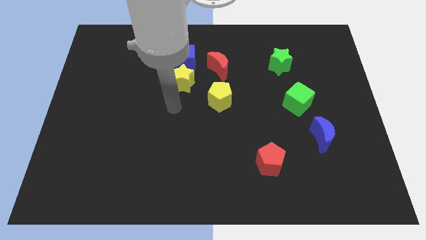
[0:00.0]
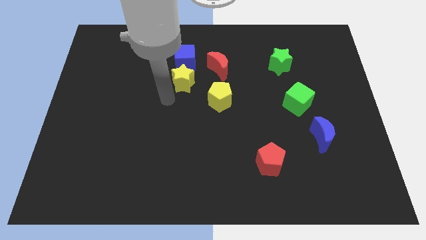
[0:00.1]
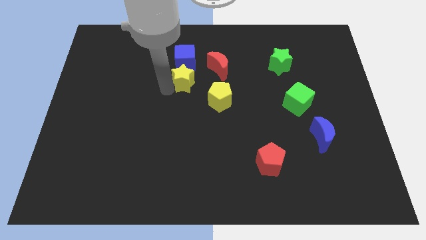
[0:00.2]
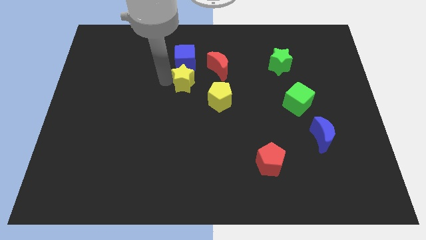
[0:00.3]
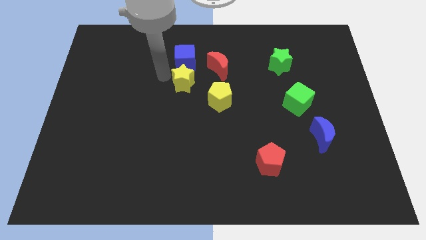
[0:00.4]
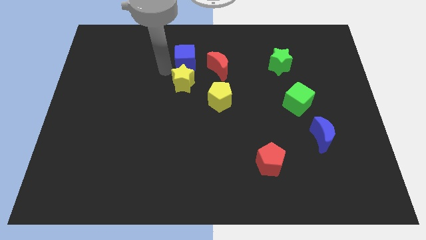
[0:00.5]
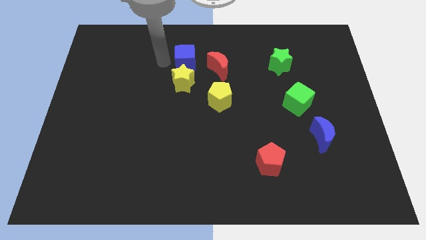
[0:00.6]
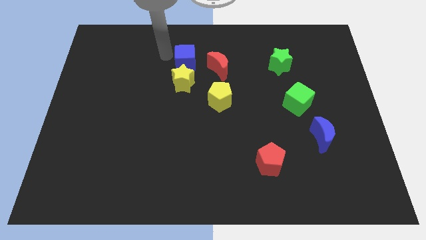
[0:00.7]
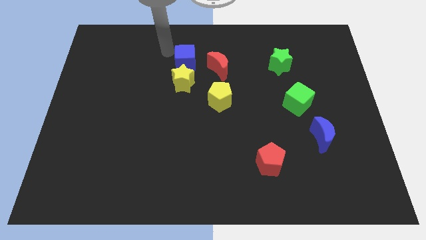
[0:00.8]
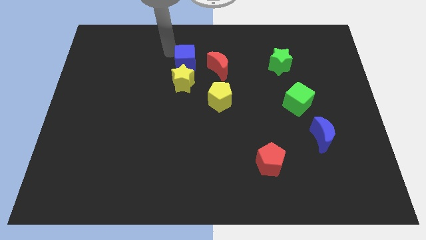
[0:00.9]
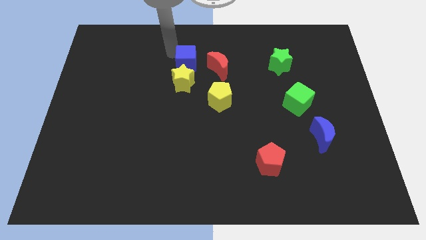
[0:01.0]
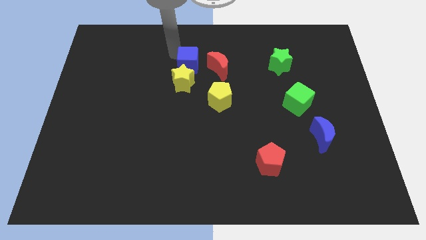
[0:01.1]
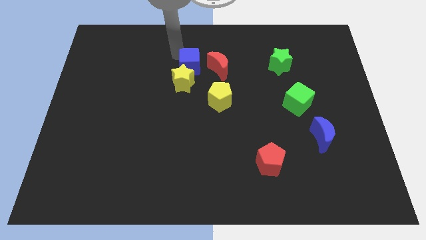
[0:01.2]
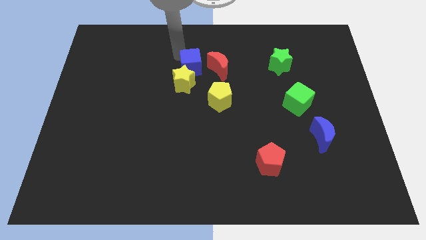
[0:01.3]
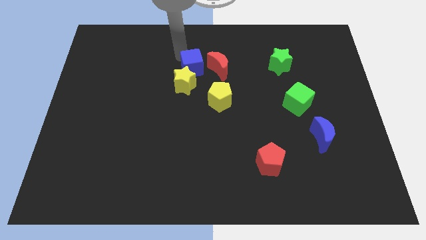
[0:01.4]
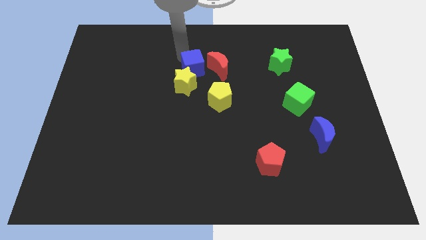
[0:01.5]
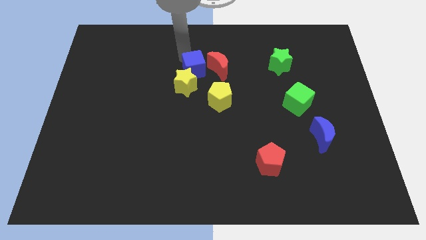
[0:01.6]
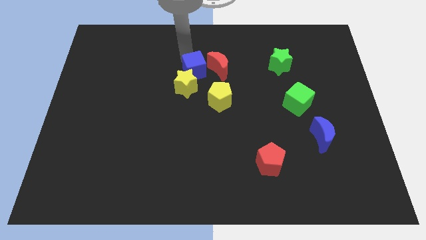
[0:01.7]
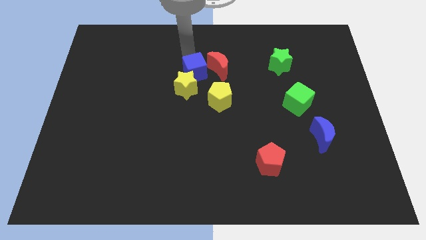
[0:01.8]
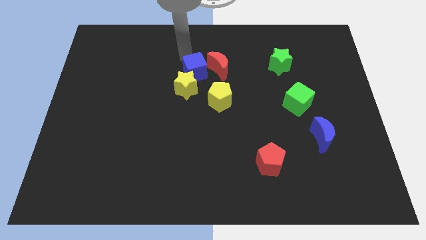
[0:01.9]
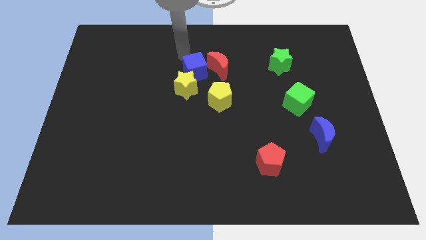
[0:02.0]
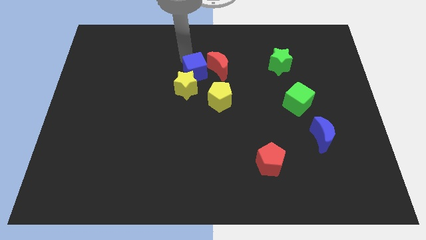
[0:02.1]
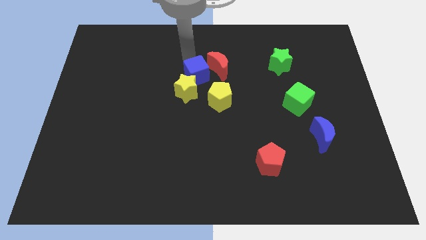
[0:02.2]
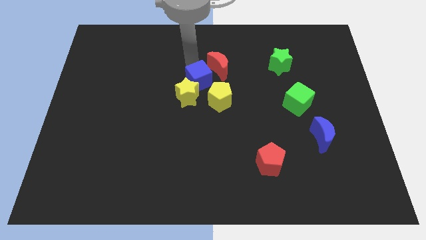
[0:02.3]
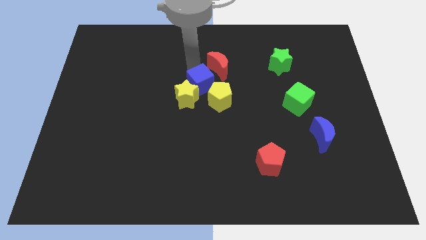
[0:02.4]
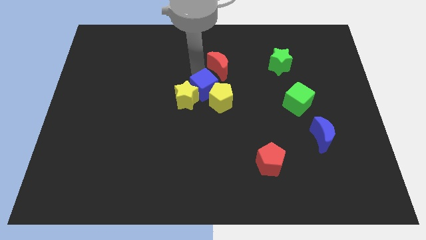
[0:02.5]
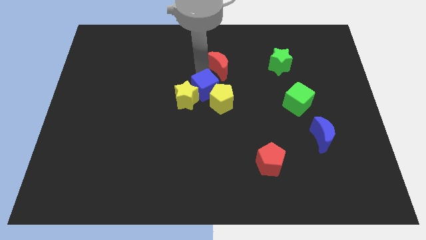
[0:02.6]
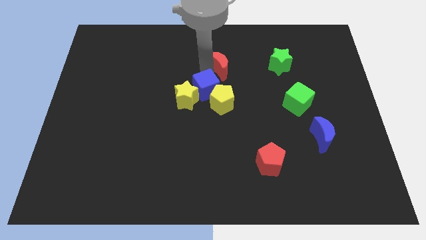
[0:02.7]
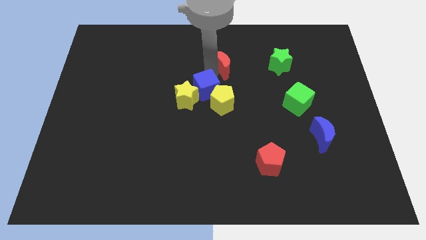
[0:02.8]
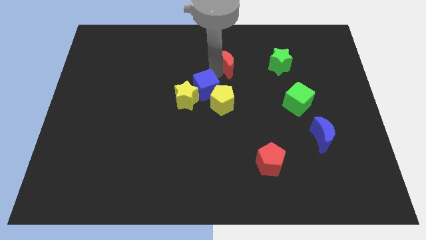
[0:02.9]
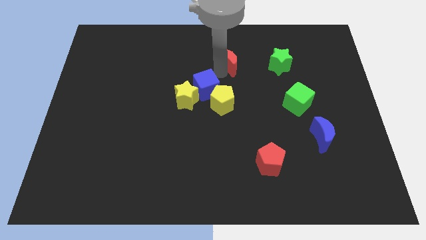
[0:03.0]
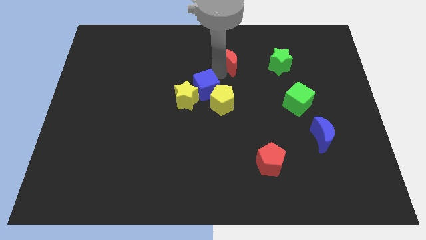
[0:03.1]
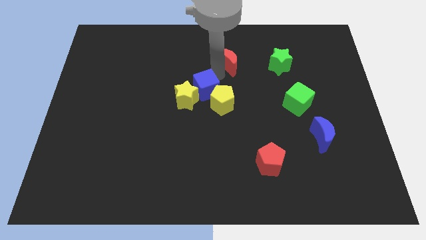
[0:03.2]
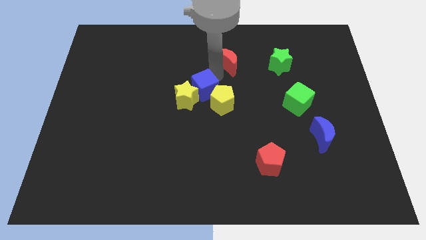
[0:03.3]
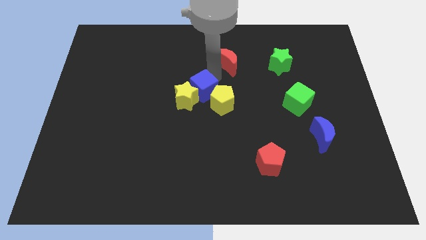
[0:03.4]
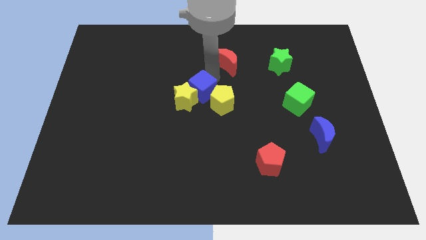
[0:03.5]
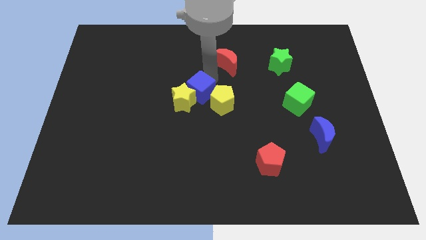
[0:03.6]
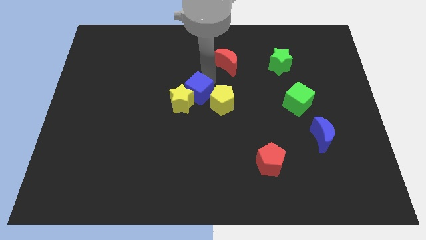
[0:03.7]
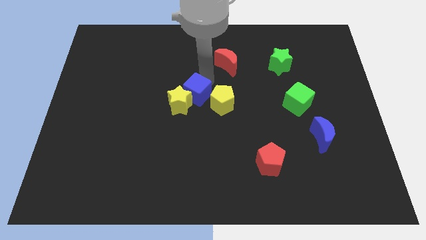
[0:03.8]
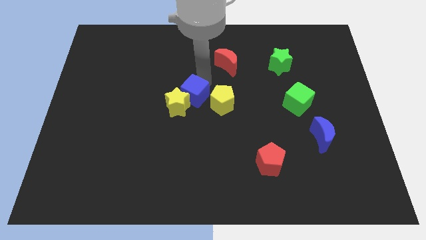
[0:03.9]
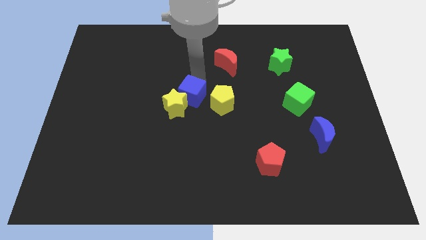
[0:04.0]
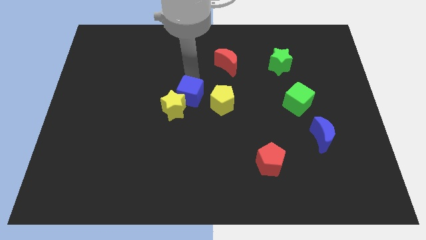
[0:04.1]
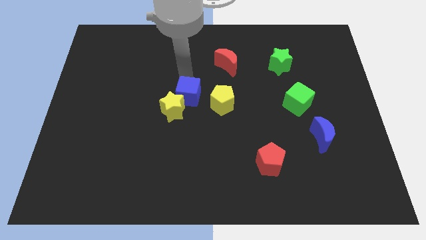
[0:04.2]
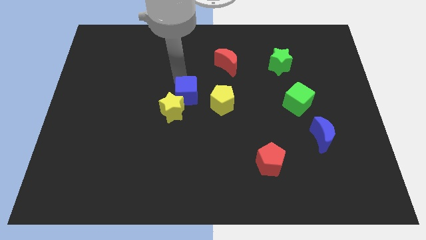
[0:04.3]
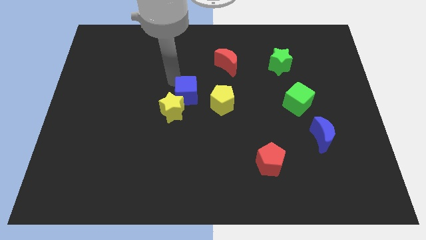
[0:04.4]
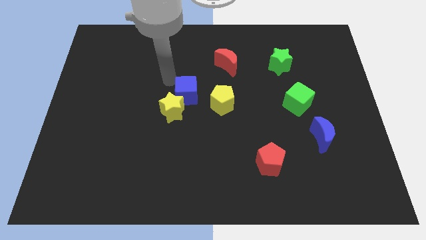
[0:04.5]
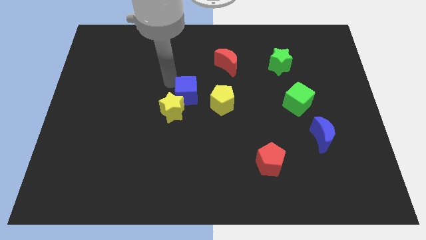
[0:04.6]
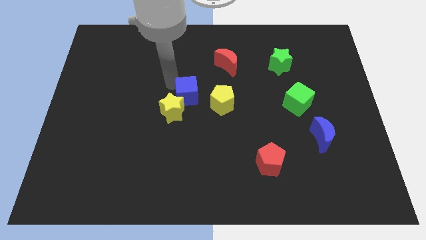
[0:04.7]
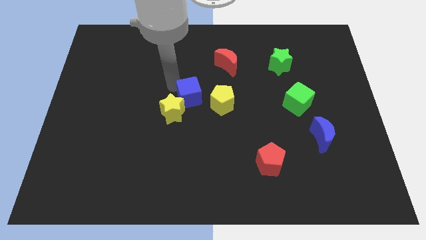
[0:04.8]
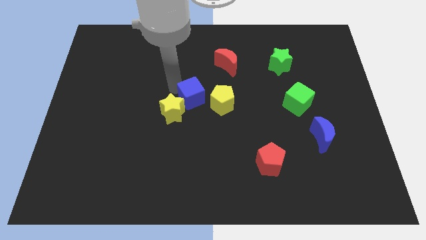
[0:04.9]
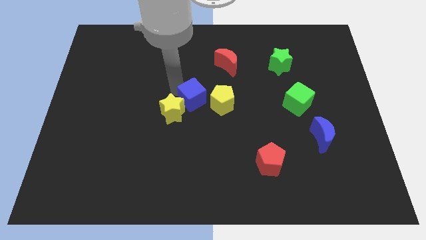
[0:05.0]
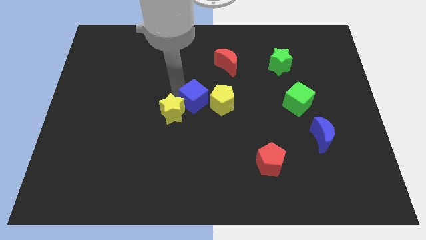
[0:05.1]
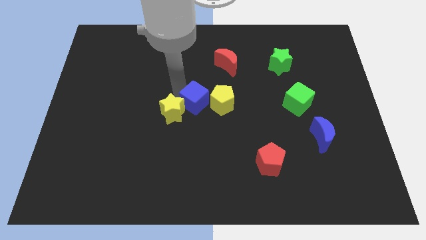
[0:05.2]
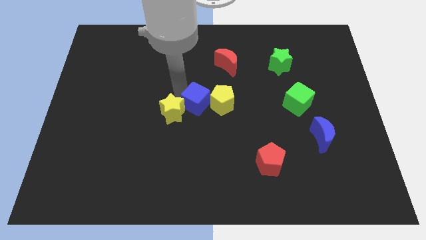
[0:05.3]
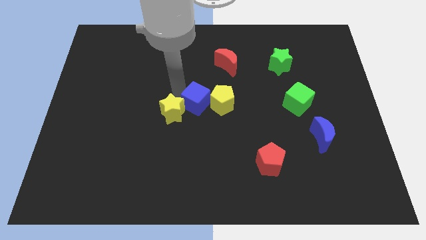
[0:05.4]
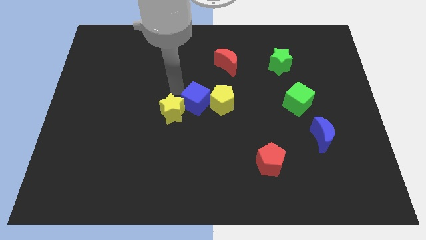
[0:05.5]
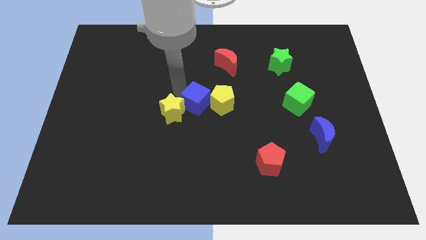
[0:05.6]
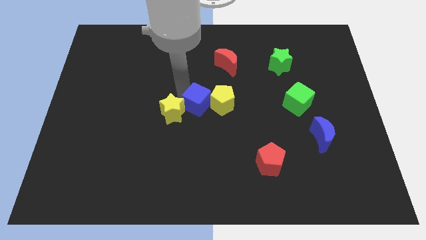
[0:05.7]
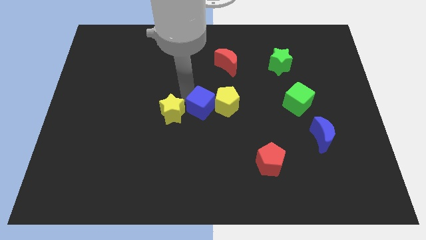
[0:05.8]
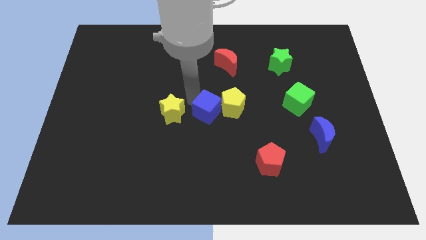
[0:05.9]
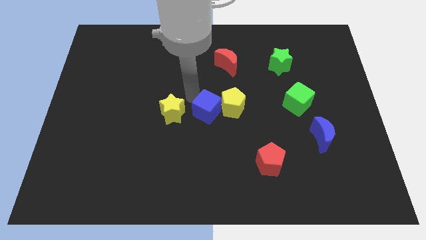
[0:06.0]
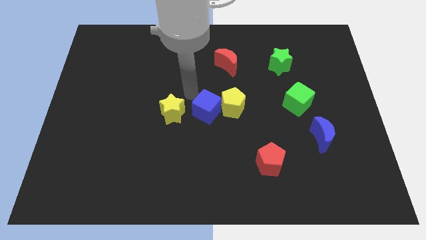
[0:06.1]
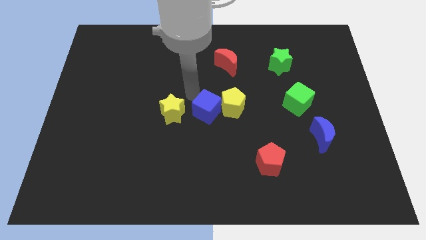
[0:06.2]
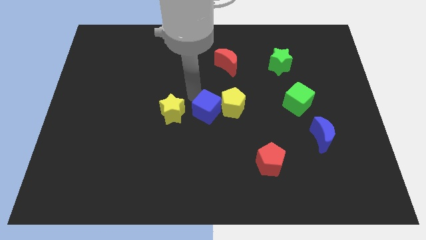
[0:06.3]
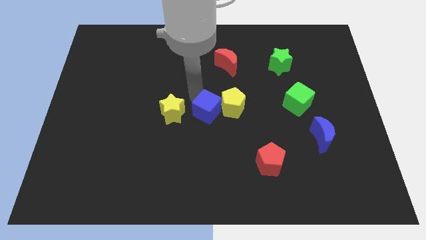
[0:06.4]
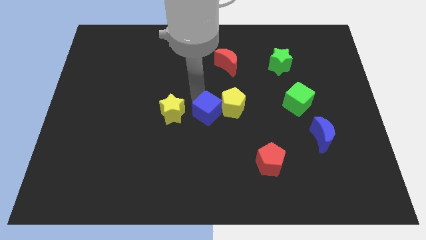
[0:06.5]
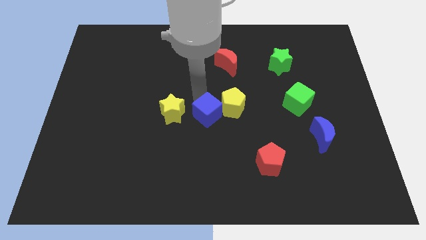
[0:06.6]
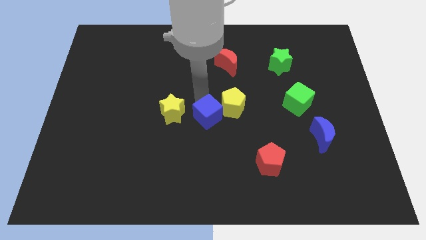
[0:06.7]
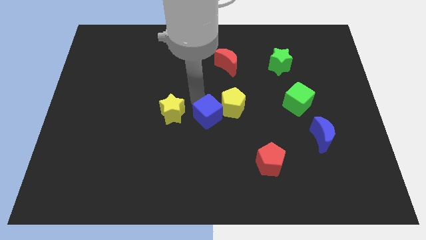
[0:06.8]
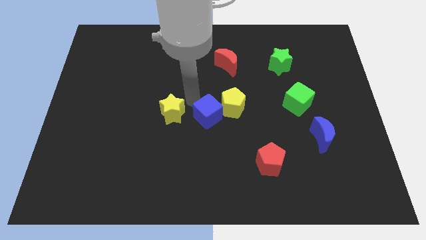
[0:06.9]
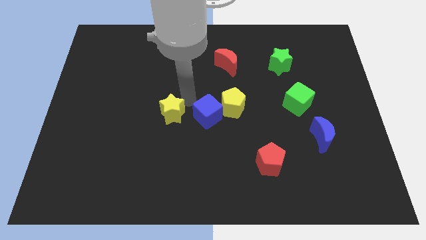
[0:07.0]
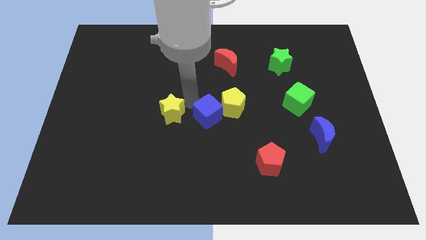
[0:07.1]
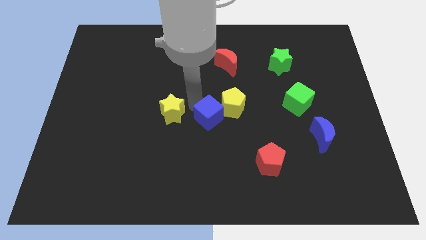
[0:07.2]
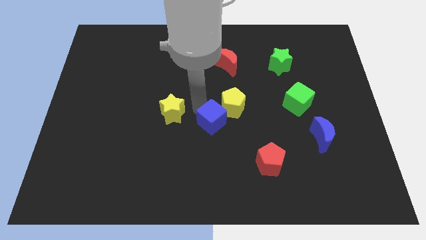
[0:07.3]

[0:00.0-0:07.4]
push the blue cube to the bottom of the yellow pentagon

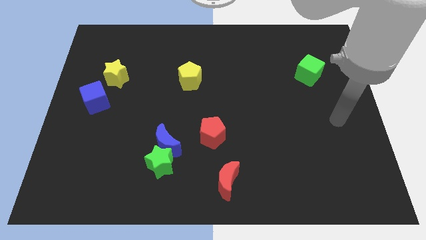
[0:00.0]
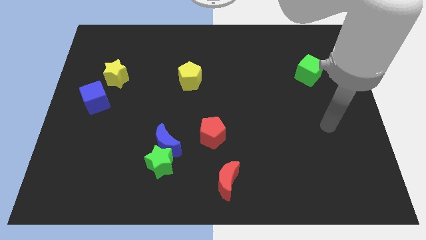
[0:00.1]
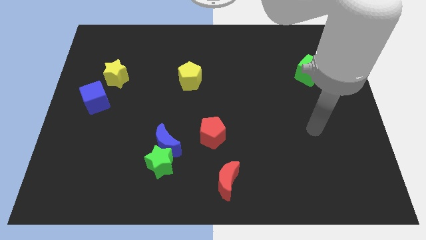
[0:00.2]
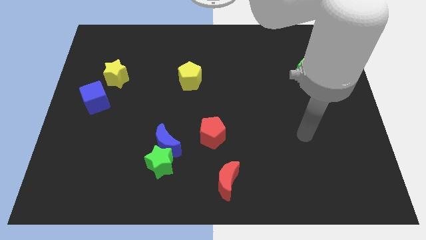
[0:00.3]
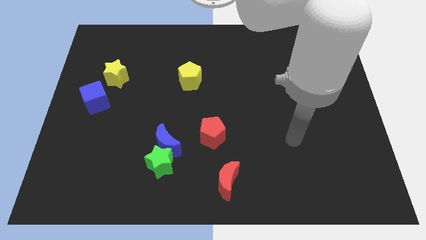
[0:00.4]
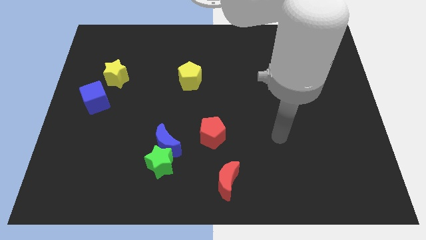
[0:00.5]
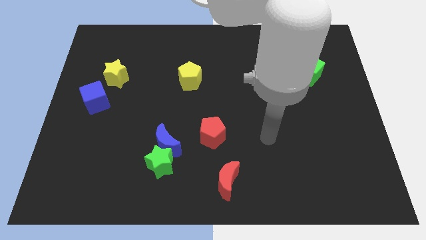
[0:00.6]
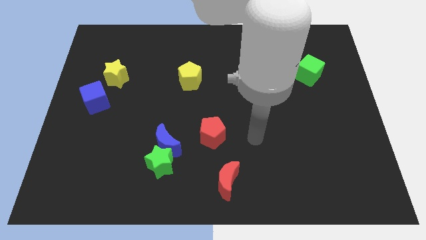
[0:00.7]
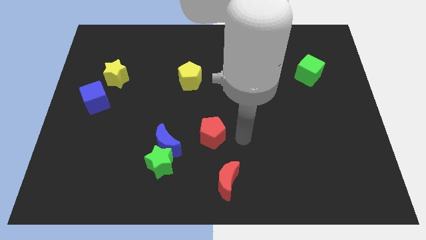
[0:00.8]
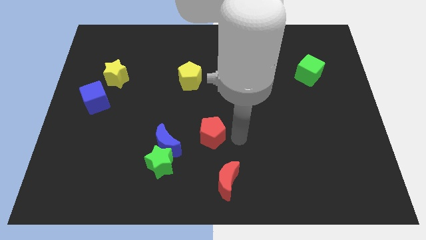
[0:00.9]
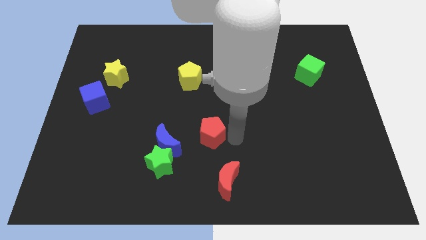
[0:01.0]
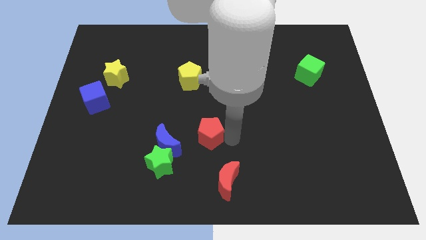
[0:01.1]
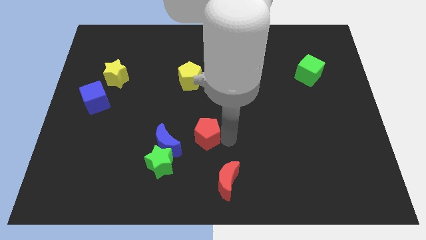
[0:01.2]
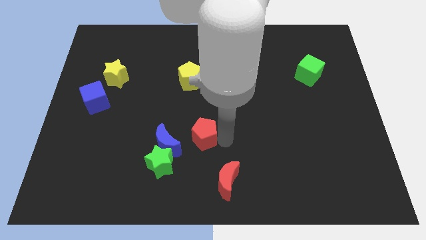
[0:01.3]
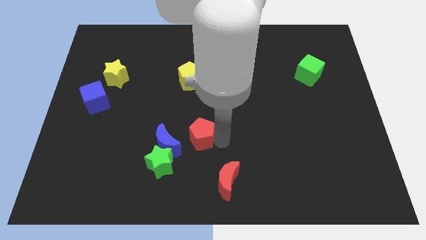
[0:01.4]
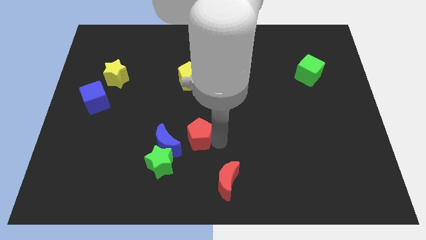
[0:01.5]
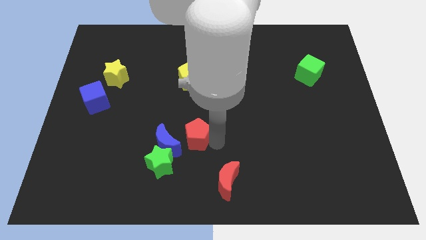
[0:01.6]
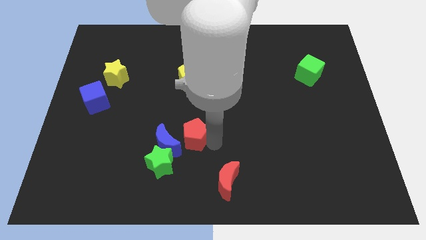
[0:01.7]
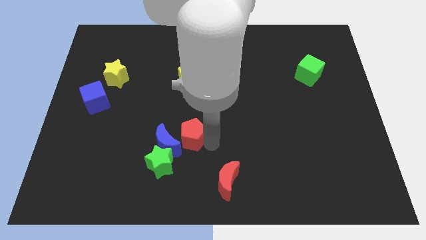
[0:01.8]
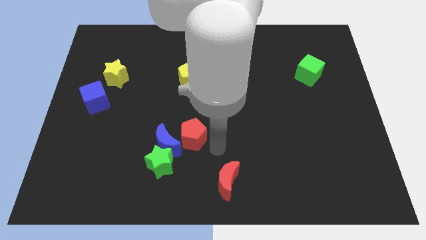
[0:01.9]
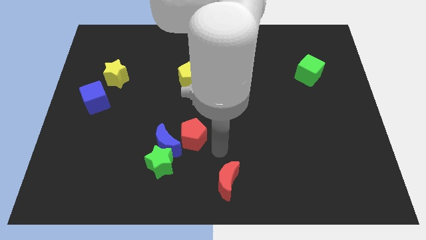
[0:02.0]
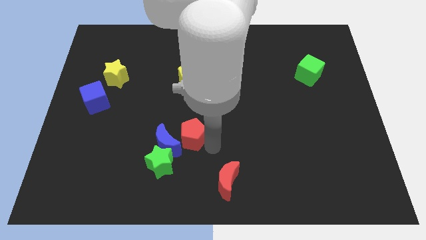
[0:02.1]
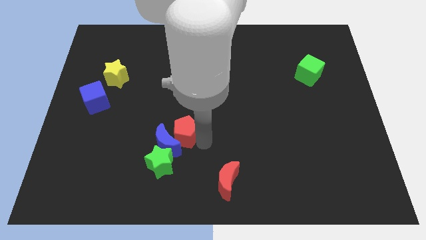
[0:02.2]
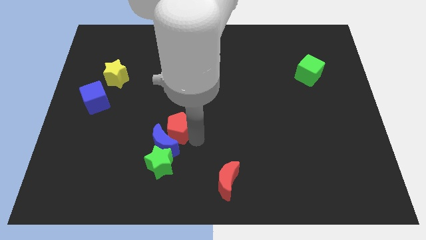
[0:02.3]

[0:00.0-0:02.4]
put the red pentagon to the top side of the green star
